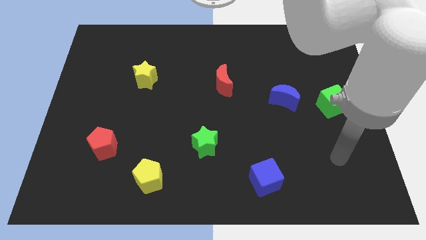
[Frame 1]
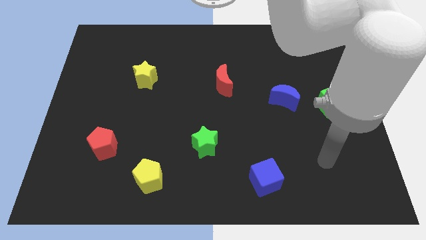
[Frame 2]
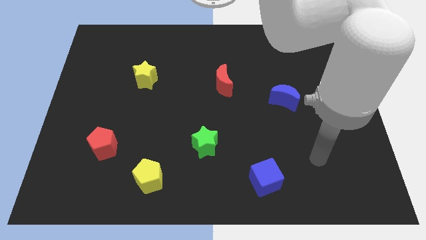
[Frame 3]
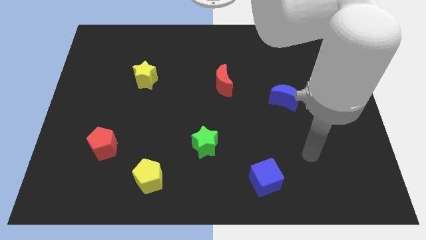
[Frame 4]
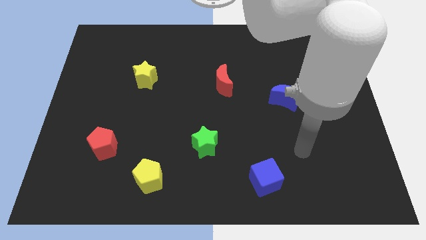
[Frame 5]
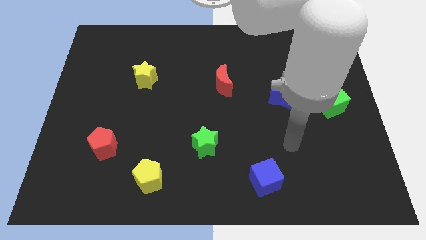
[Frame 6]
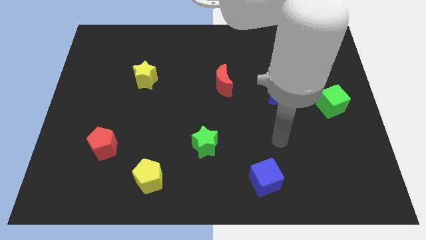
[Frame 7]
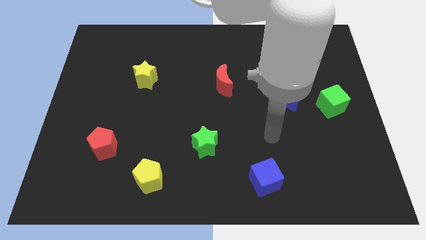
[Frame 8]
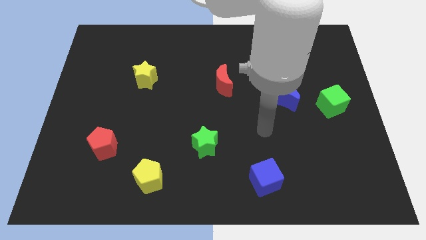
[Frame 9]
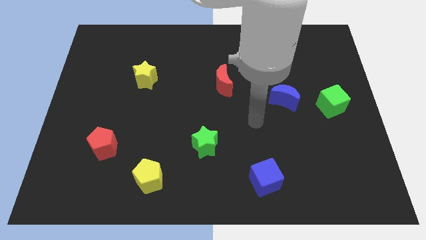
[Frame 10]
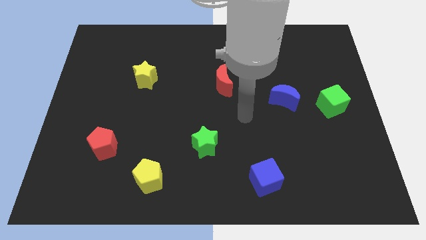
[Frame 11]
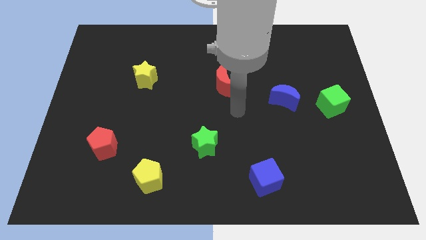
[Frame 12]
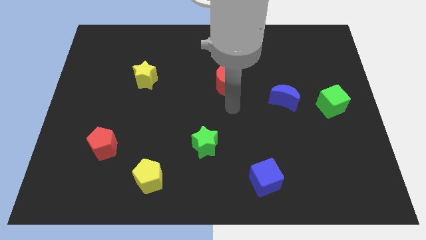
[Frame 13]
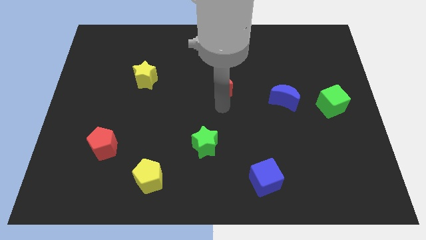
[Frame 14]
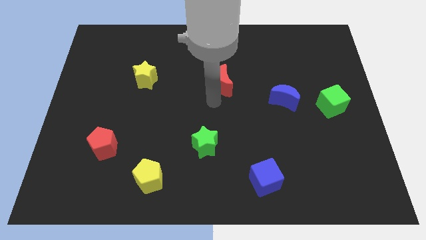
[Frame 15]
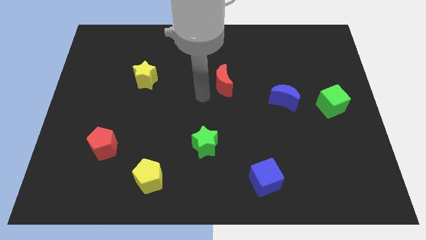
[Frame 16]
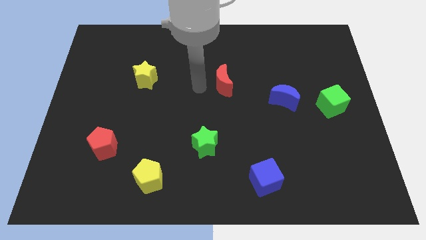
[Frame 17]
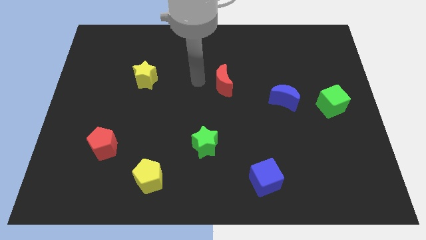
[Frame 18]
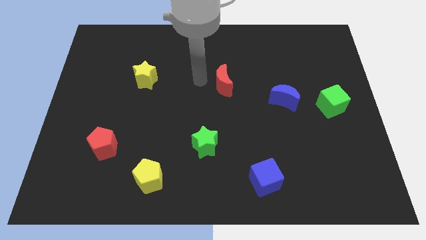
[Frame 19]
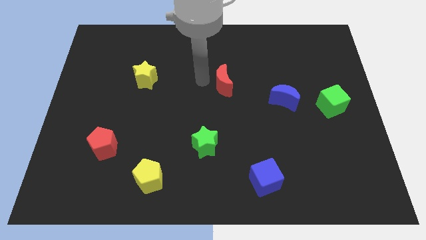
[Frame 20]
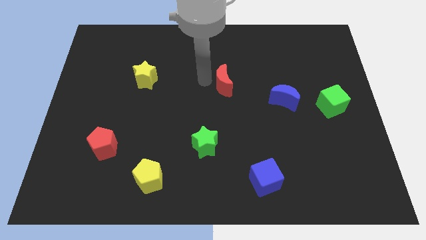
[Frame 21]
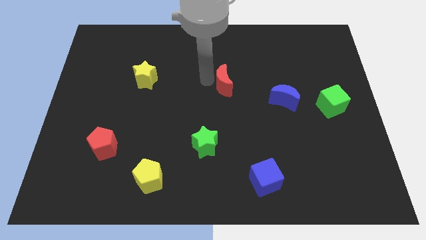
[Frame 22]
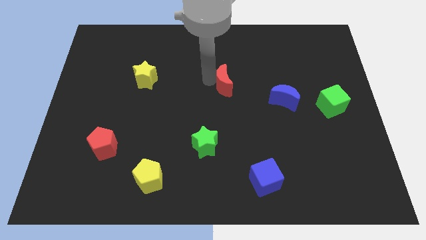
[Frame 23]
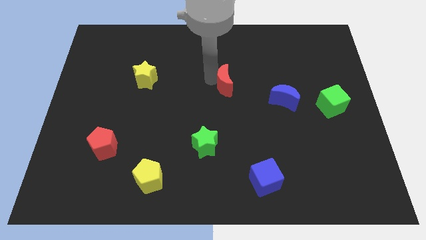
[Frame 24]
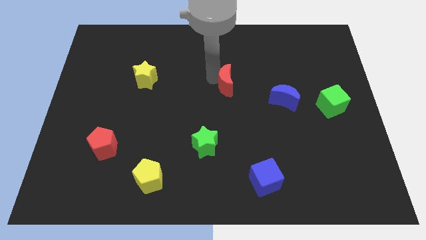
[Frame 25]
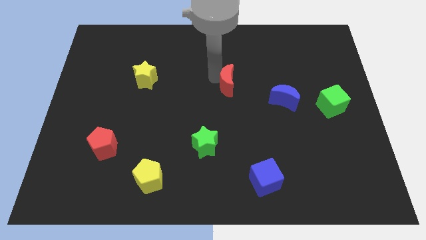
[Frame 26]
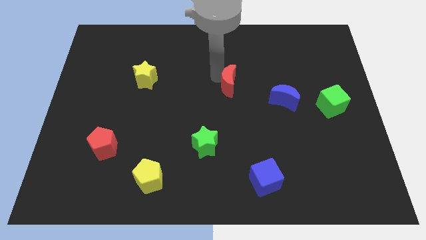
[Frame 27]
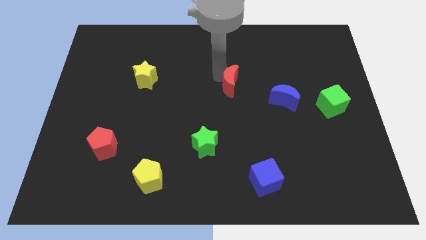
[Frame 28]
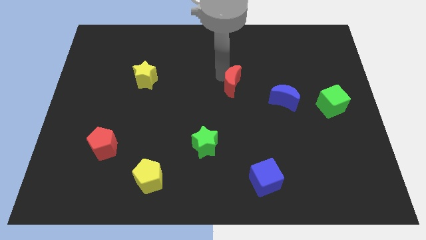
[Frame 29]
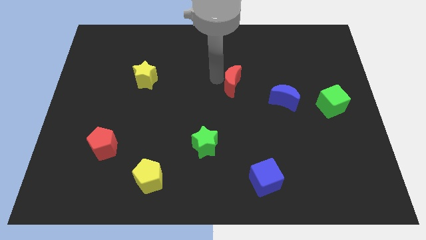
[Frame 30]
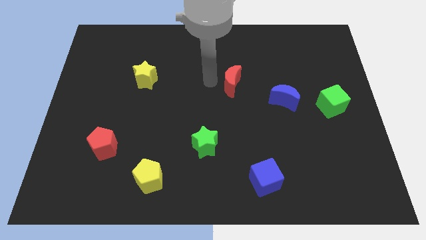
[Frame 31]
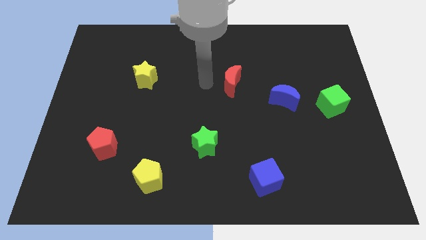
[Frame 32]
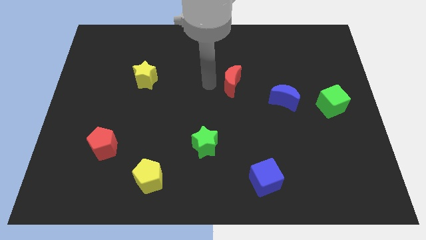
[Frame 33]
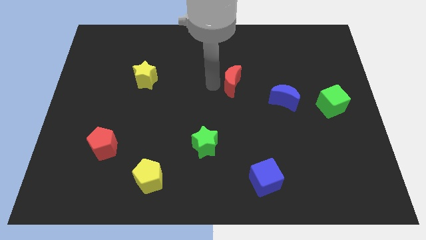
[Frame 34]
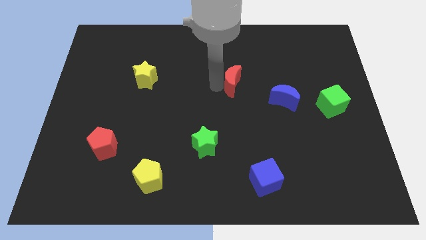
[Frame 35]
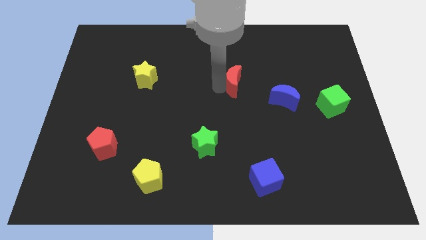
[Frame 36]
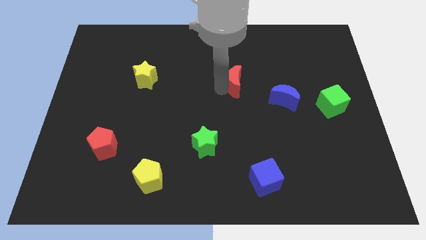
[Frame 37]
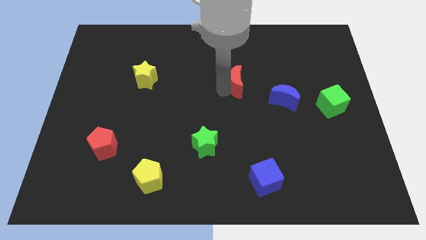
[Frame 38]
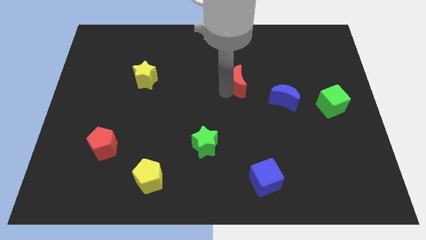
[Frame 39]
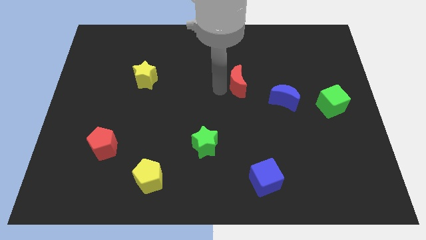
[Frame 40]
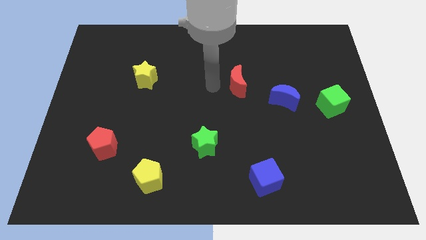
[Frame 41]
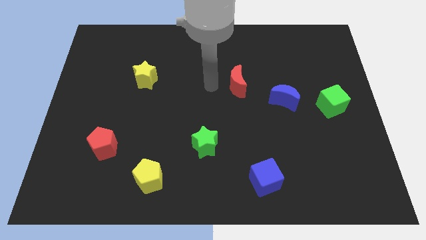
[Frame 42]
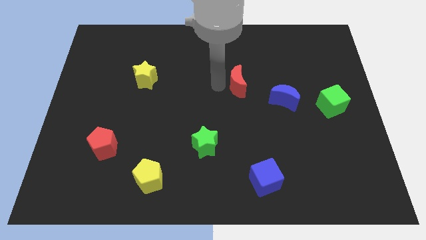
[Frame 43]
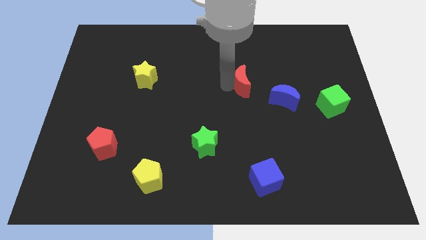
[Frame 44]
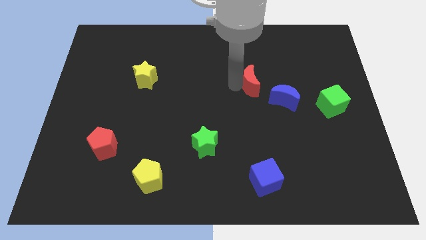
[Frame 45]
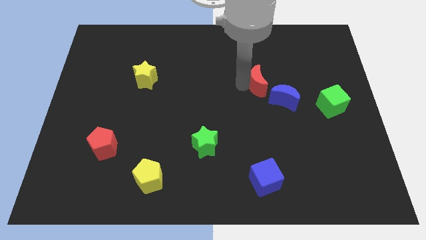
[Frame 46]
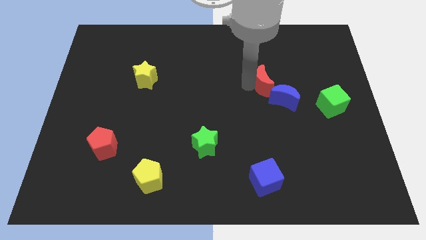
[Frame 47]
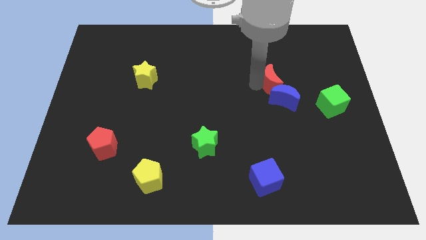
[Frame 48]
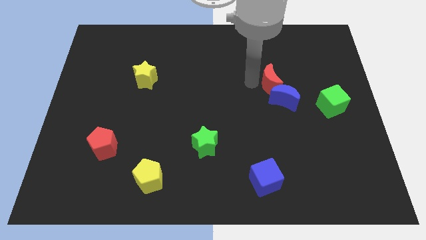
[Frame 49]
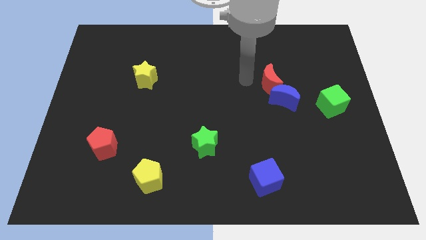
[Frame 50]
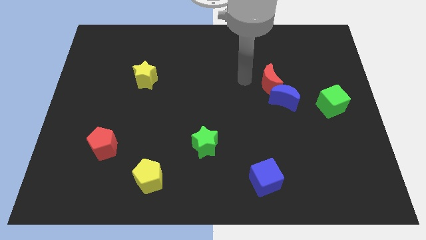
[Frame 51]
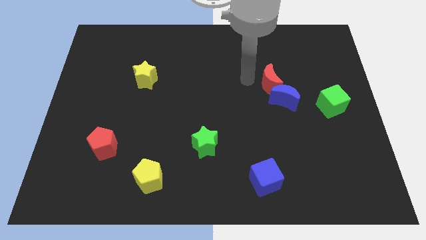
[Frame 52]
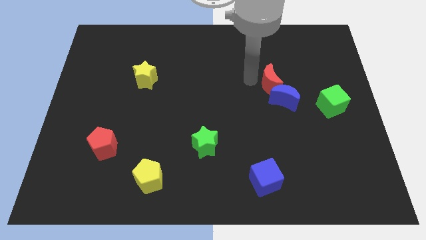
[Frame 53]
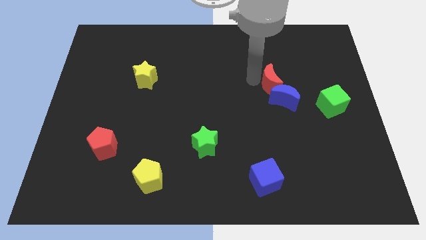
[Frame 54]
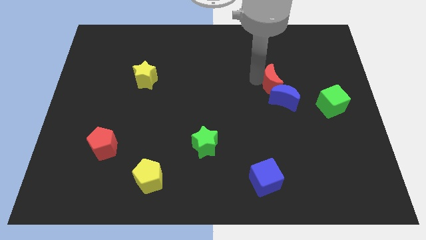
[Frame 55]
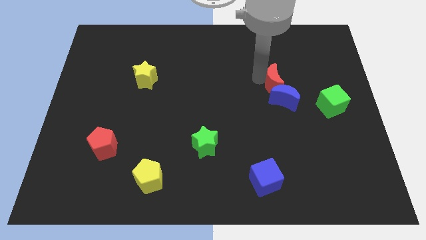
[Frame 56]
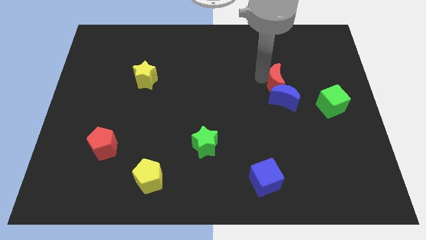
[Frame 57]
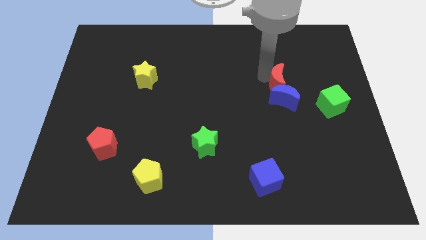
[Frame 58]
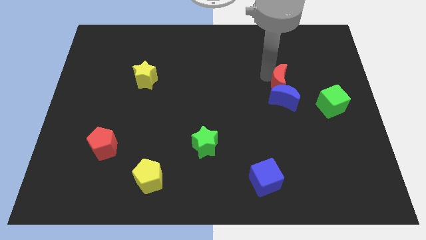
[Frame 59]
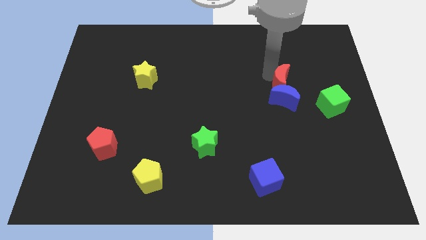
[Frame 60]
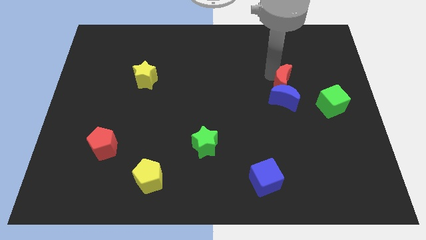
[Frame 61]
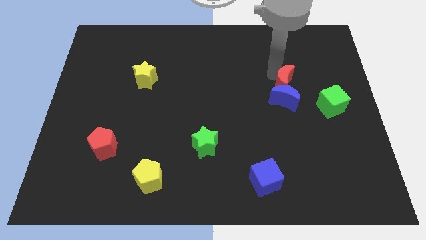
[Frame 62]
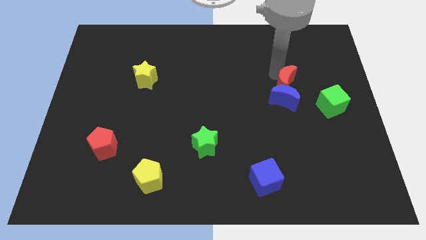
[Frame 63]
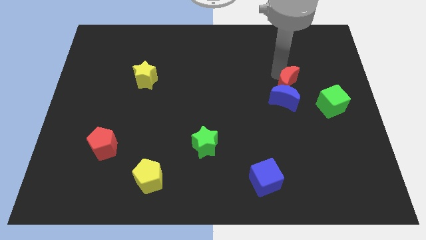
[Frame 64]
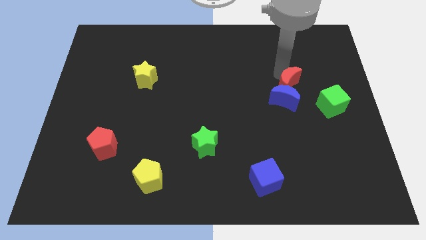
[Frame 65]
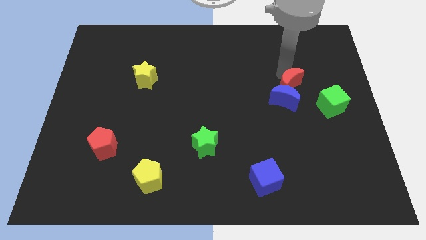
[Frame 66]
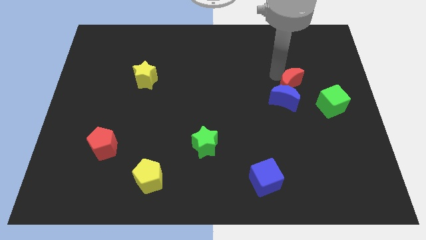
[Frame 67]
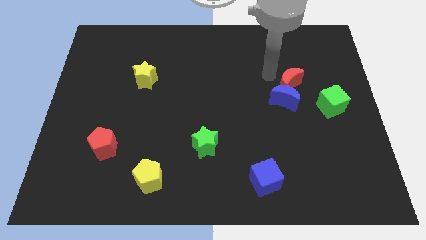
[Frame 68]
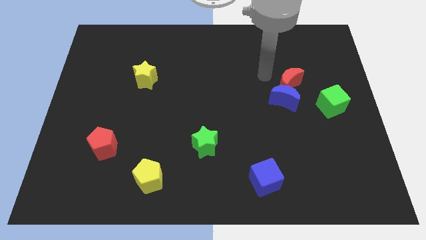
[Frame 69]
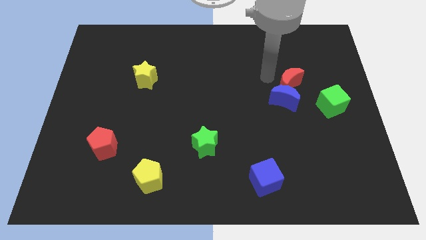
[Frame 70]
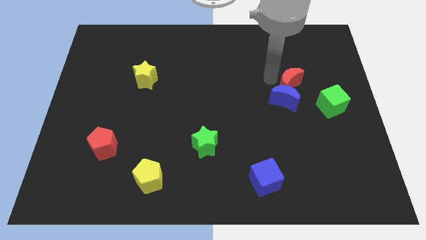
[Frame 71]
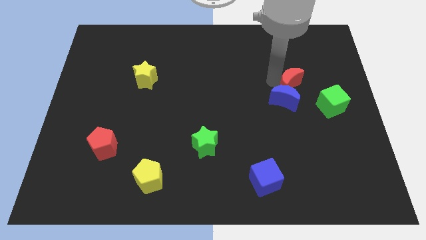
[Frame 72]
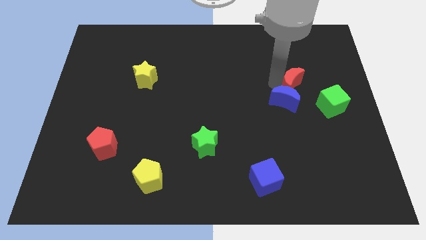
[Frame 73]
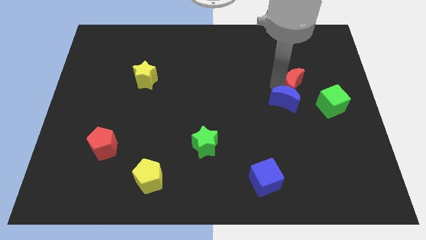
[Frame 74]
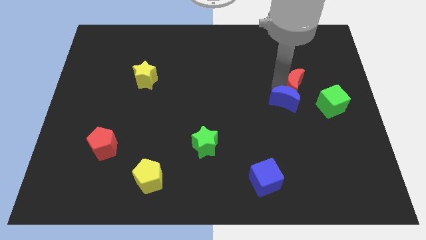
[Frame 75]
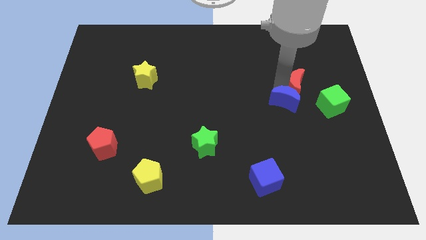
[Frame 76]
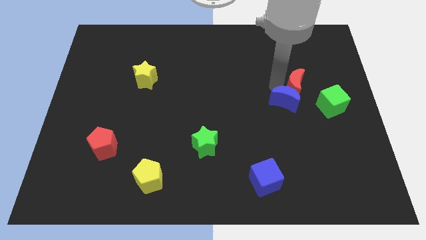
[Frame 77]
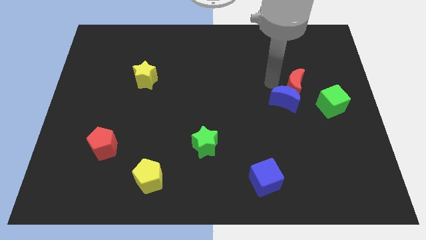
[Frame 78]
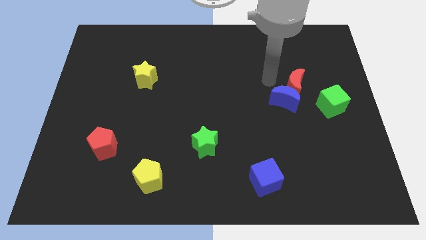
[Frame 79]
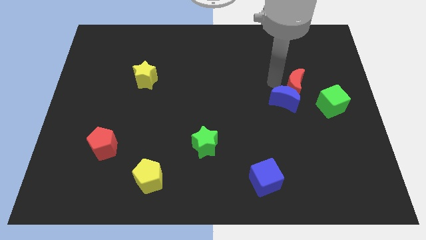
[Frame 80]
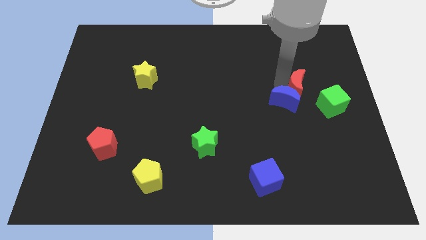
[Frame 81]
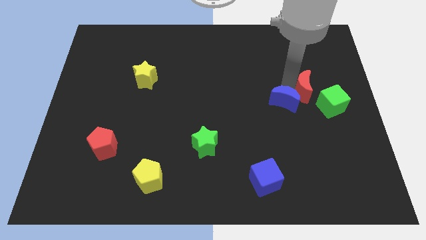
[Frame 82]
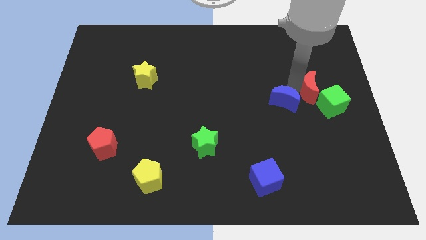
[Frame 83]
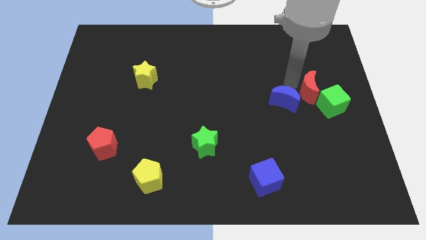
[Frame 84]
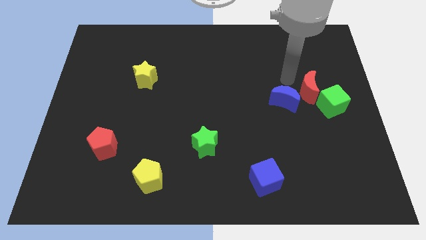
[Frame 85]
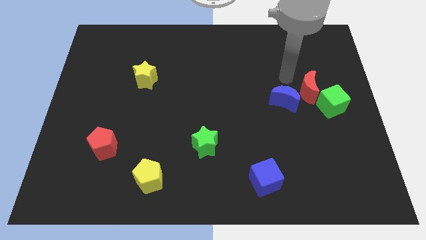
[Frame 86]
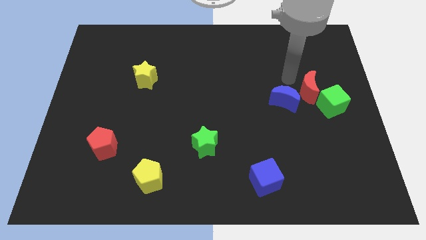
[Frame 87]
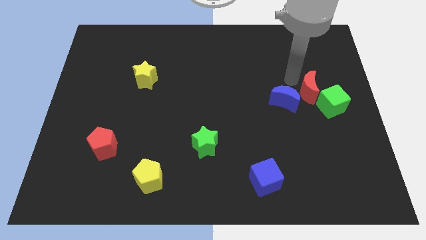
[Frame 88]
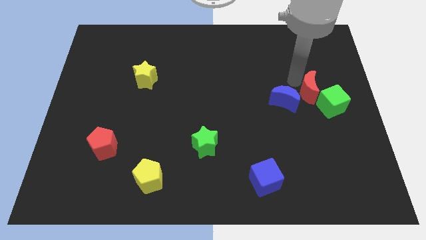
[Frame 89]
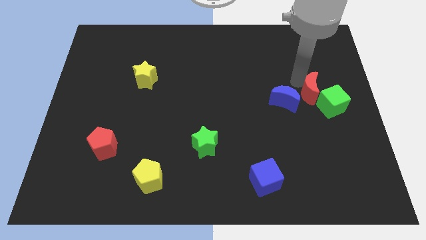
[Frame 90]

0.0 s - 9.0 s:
push the red moon to the green cube
